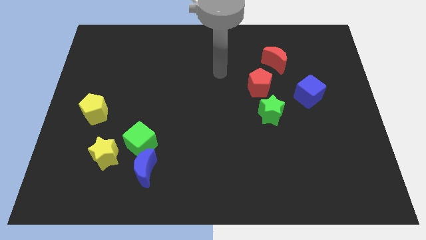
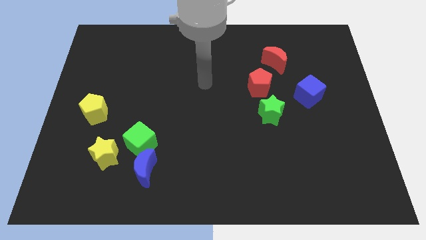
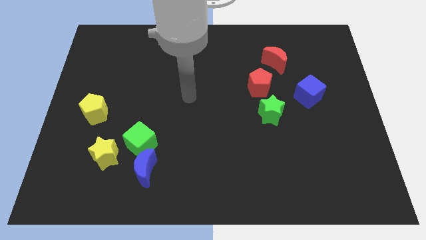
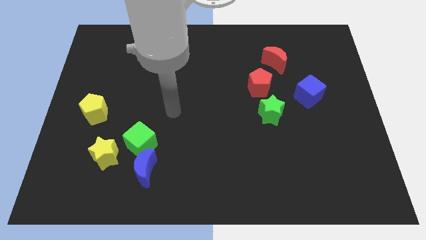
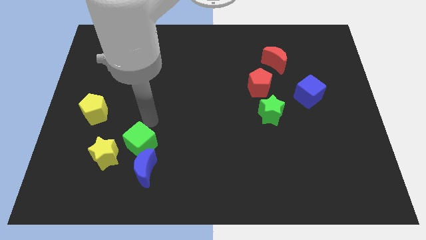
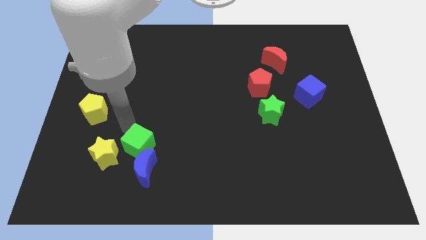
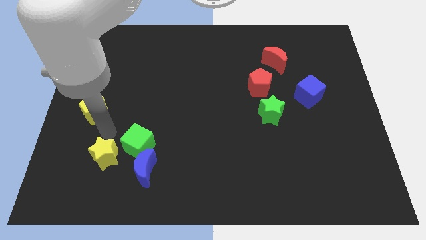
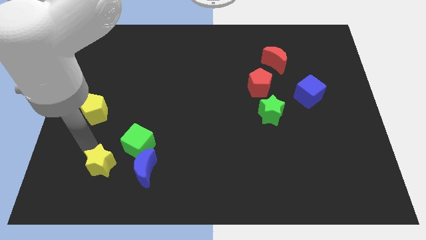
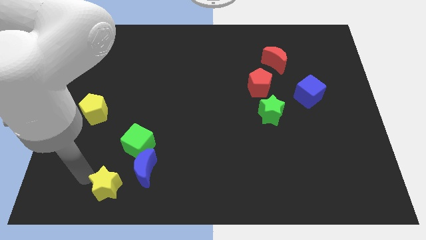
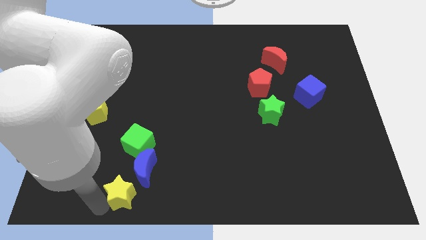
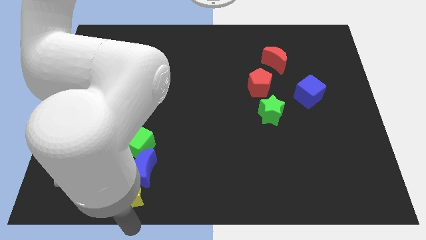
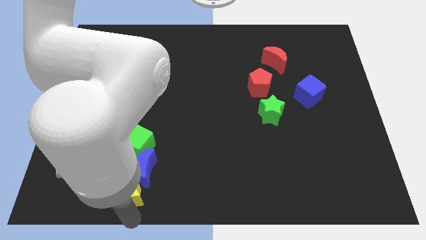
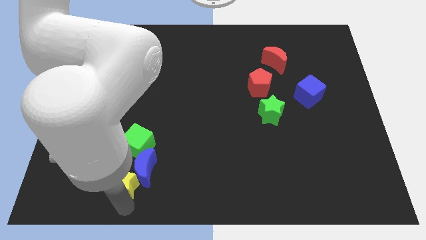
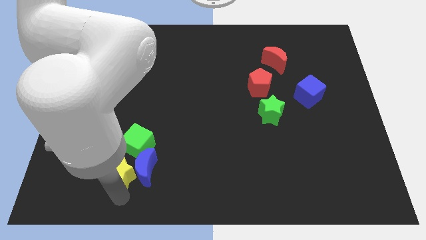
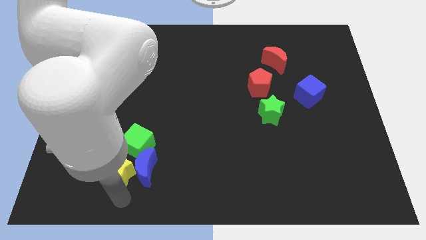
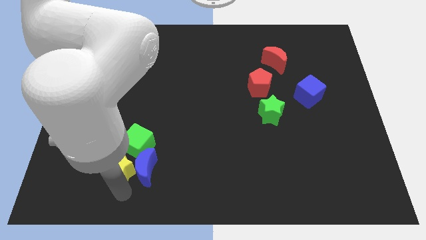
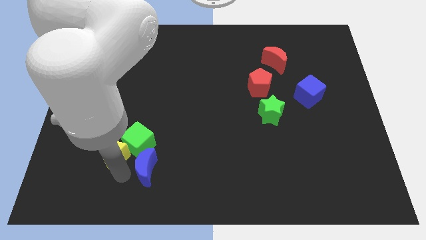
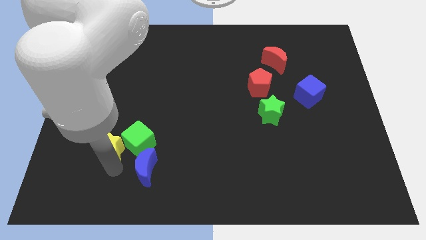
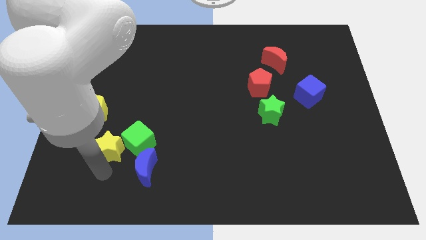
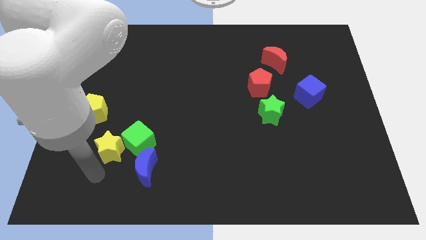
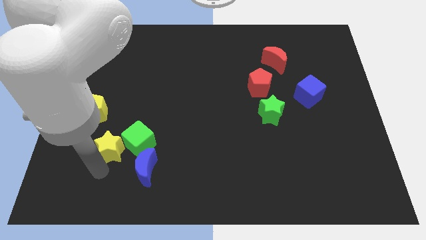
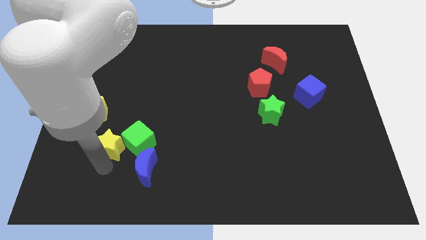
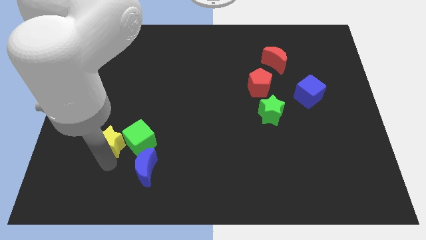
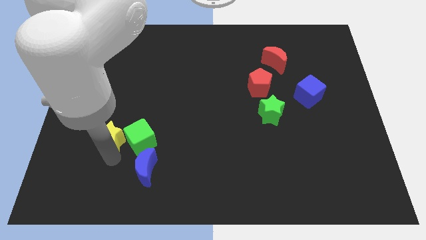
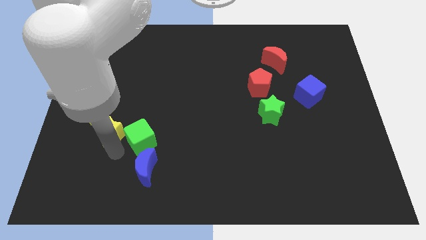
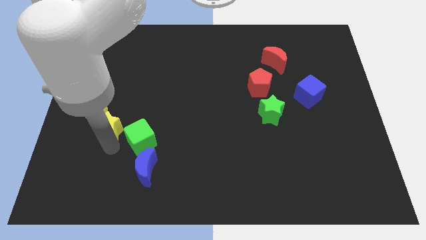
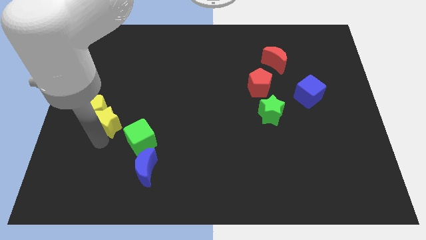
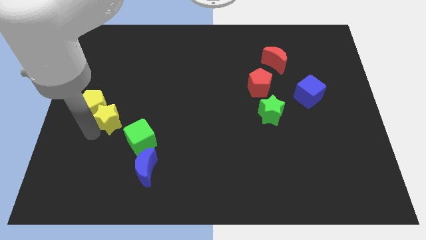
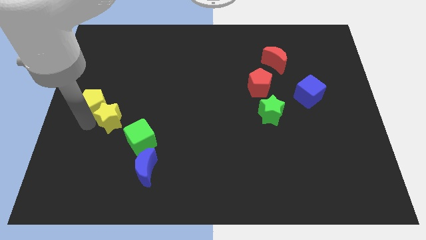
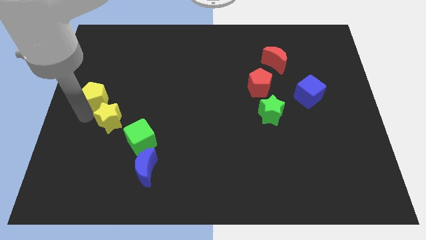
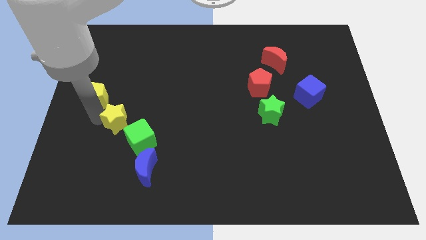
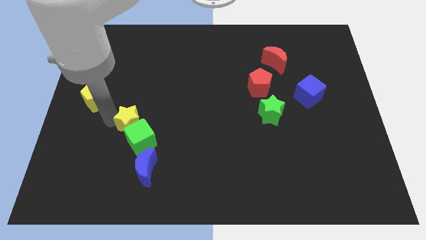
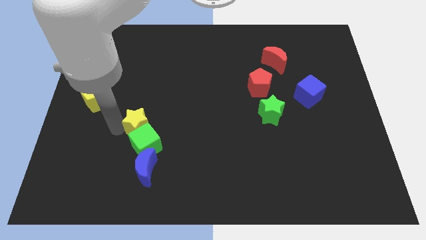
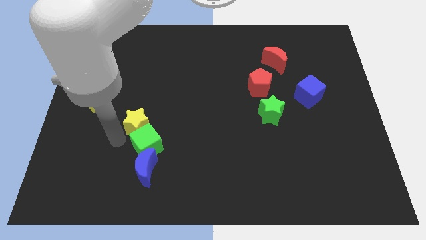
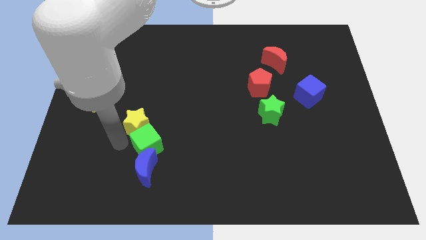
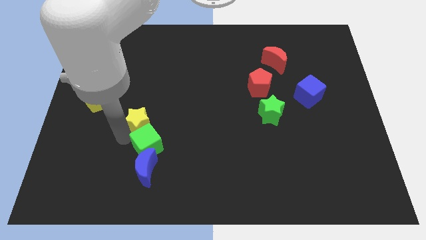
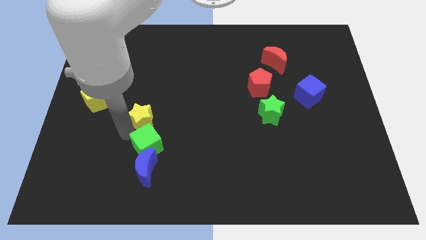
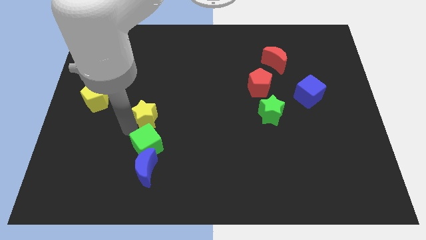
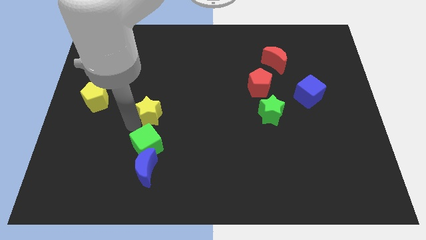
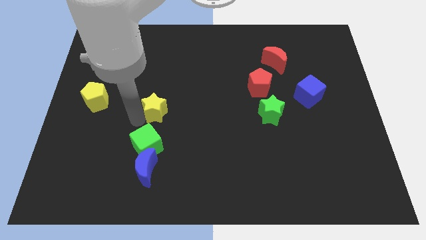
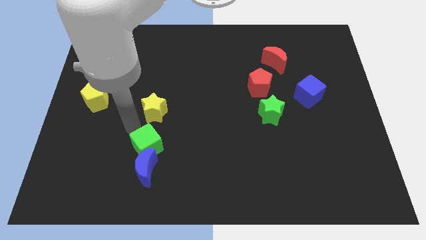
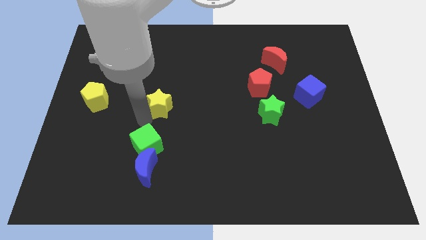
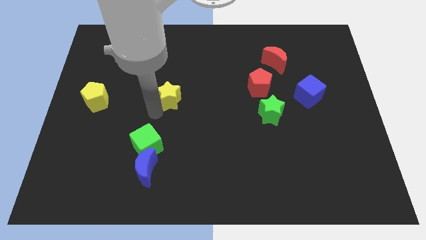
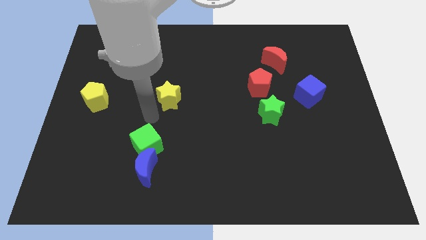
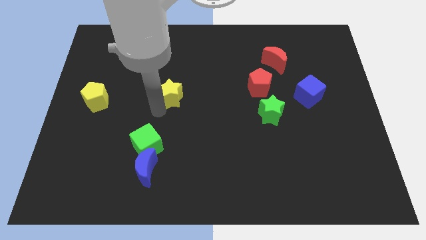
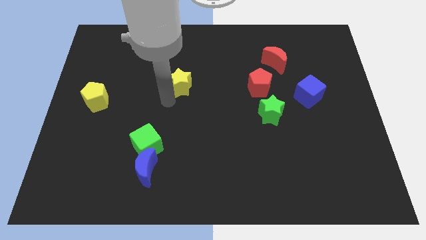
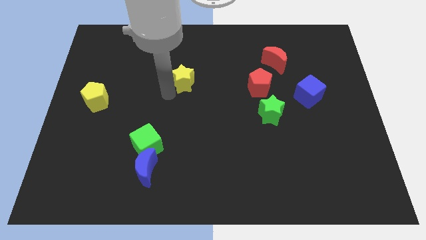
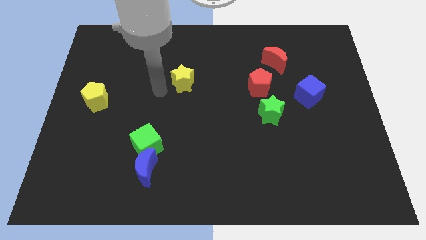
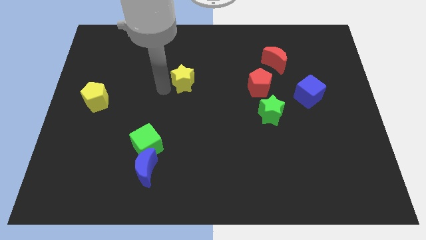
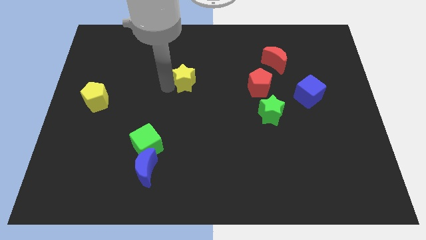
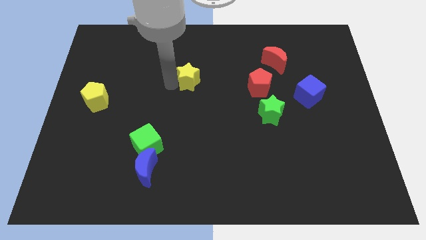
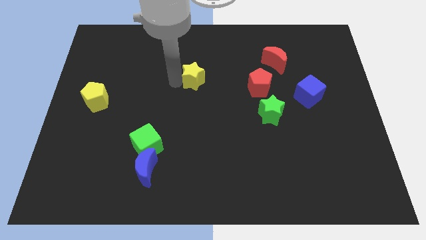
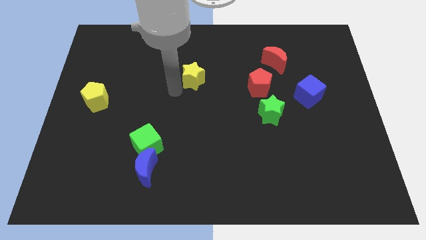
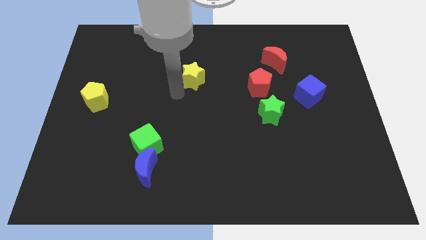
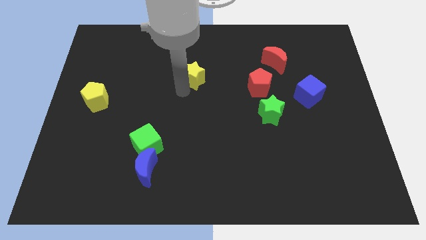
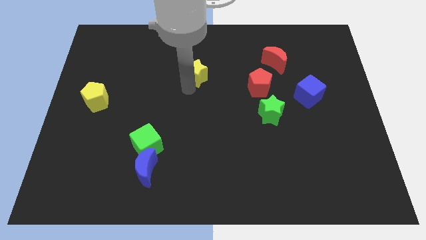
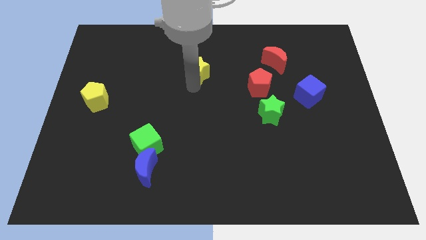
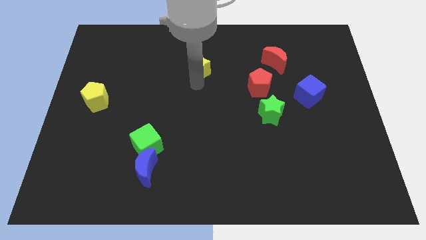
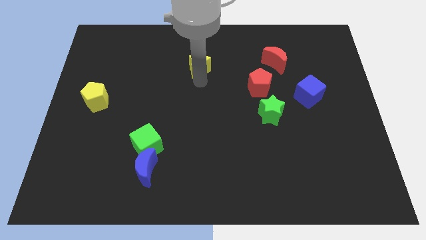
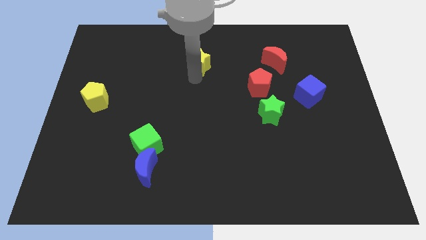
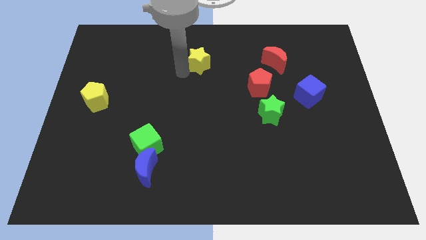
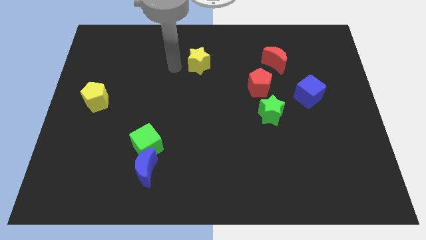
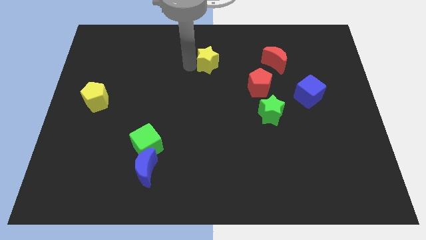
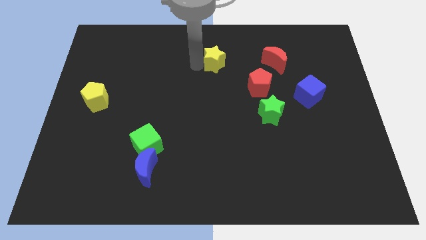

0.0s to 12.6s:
move the yellow star just left of the red moon

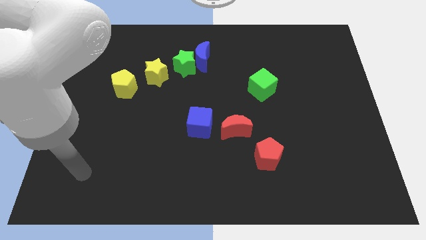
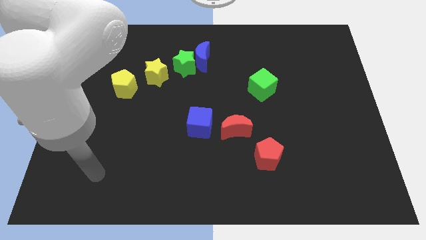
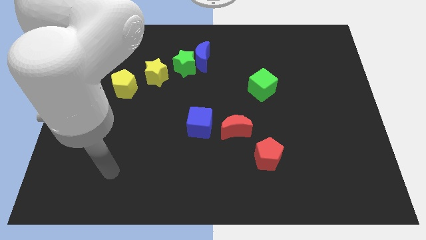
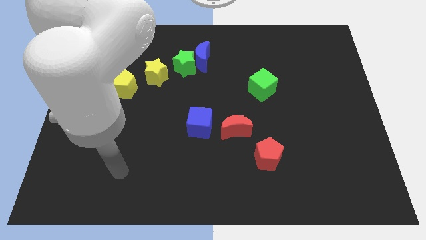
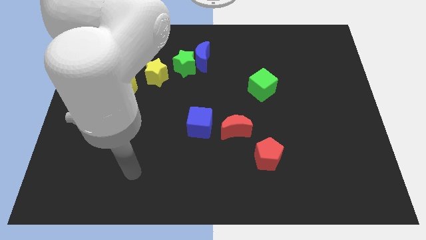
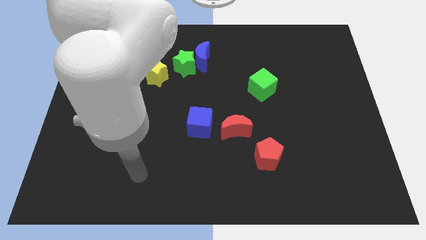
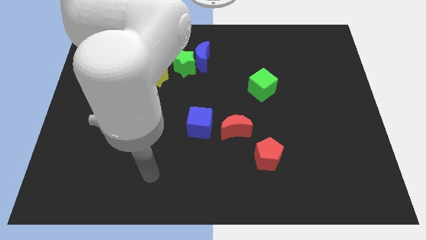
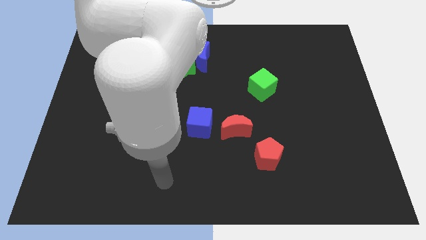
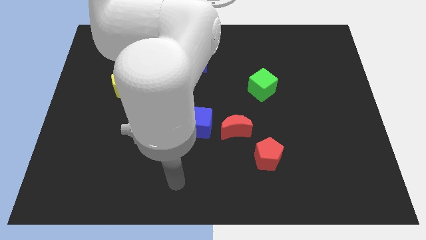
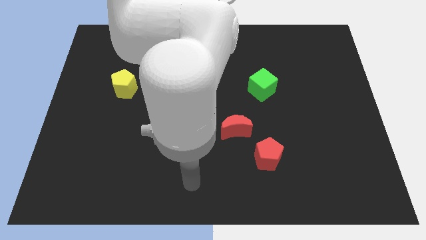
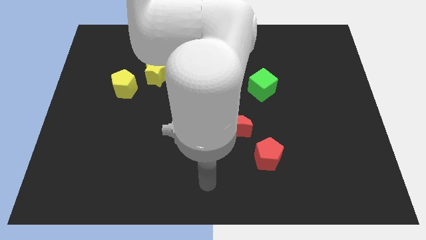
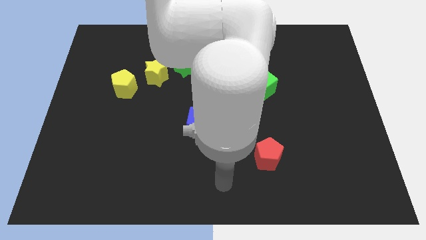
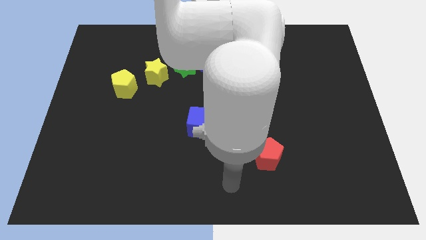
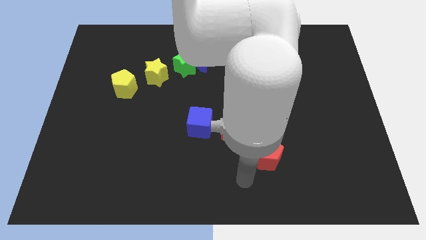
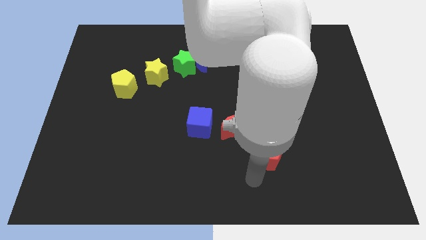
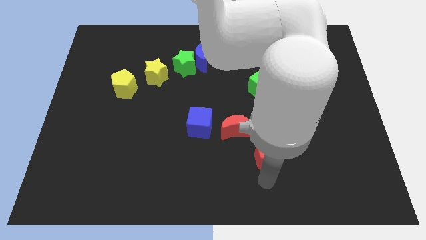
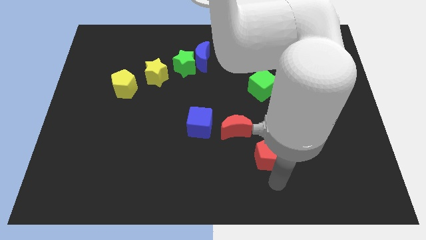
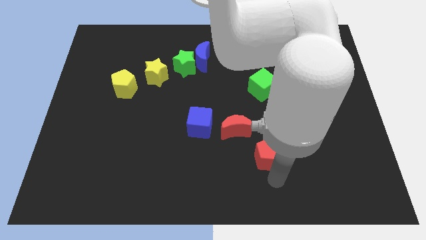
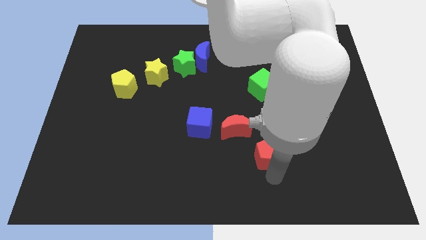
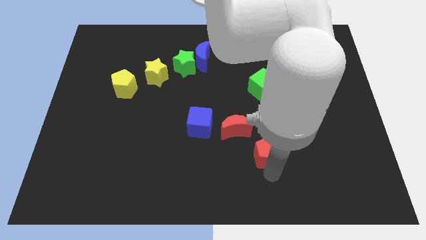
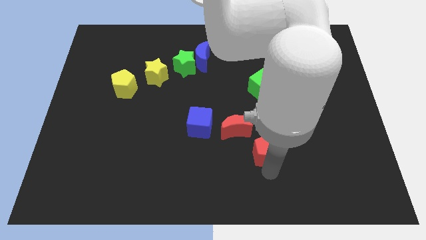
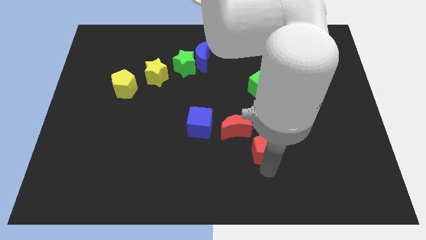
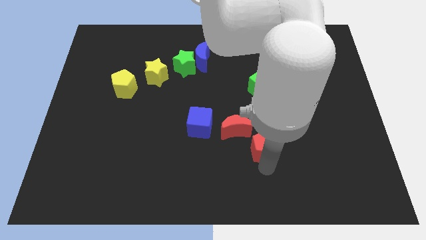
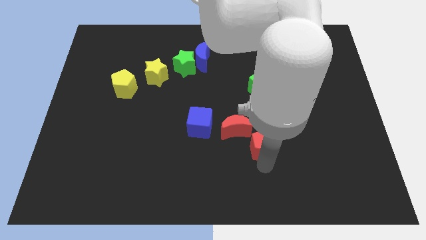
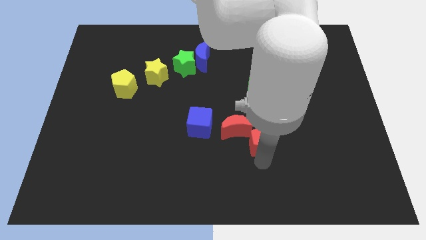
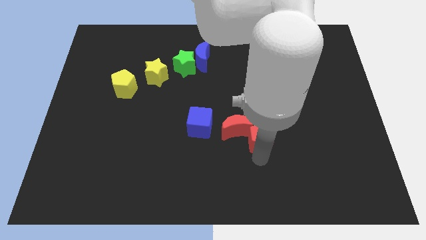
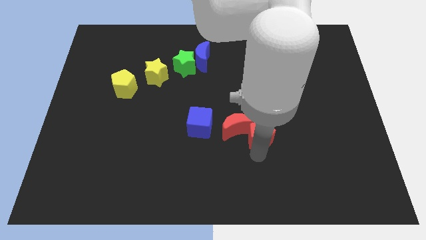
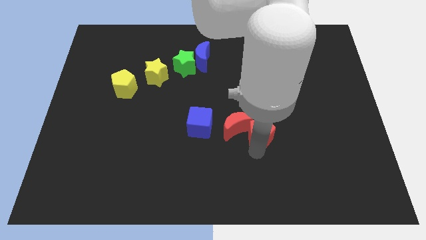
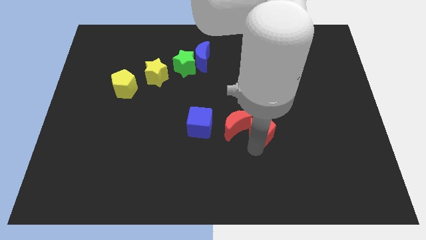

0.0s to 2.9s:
move the red pentagon to the top right side of the red moon
